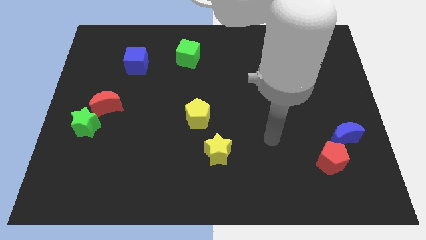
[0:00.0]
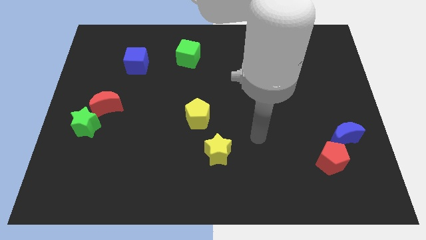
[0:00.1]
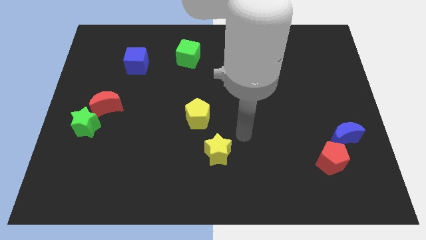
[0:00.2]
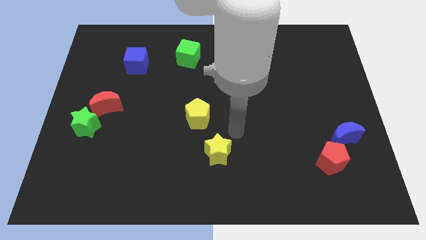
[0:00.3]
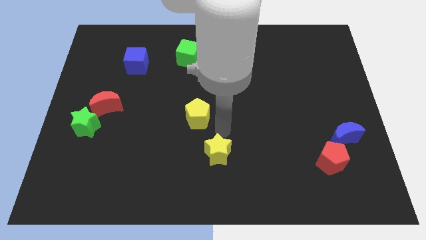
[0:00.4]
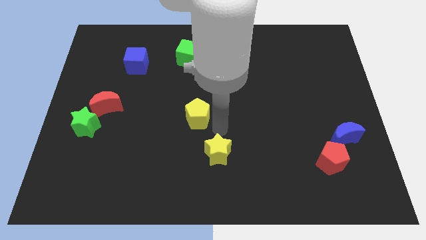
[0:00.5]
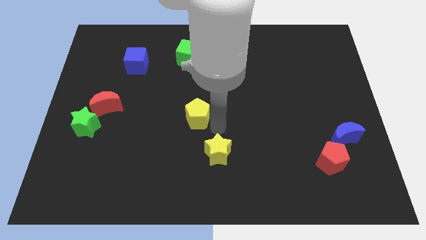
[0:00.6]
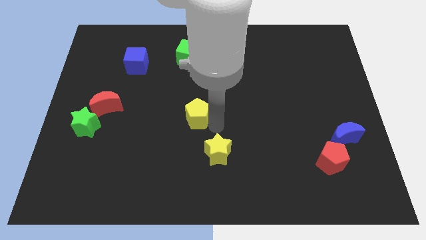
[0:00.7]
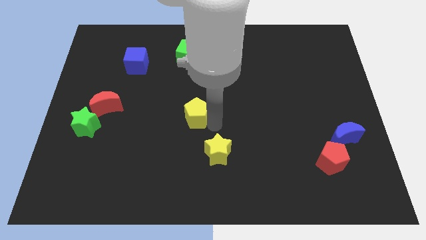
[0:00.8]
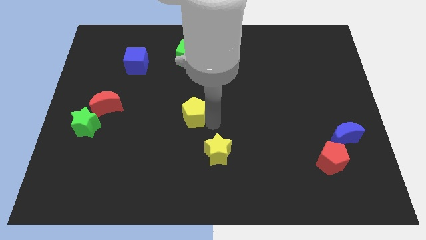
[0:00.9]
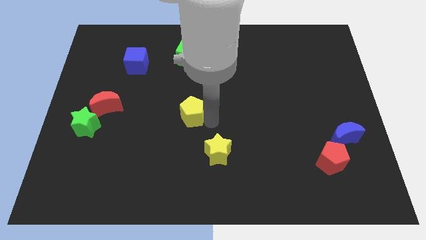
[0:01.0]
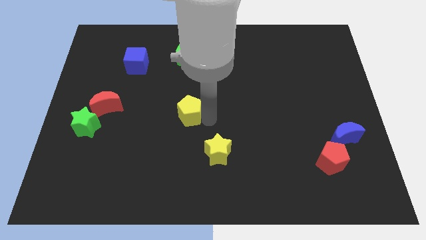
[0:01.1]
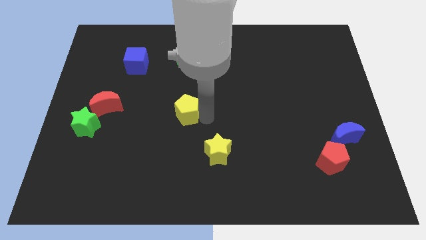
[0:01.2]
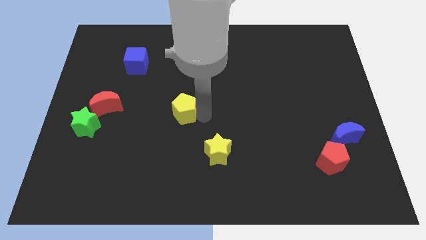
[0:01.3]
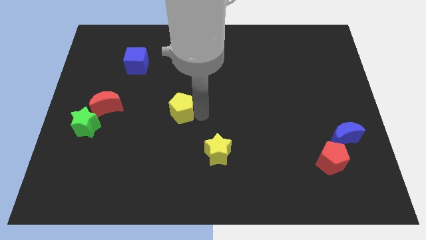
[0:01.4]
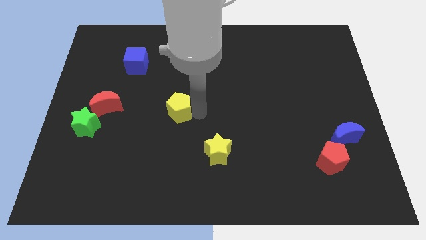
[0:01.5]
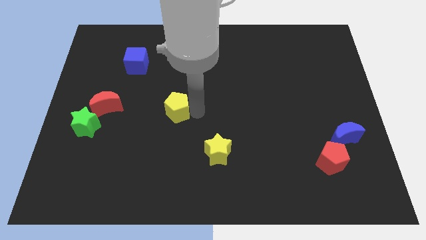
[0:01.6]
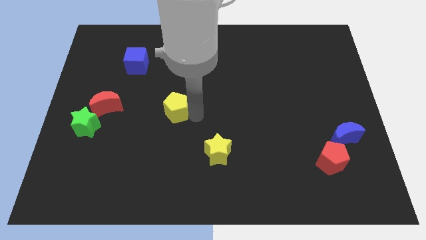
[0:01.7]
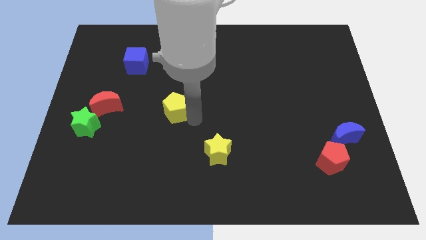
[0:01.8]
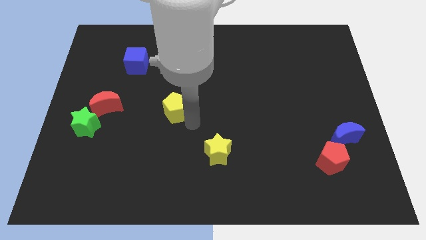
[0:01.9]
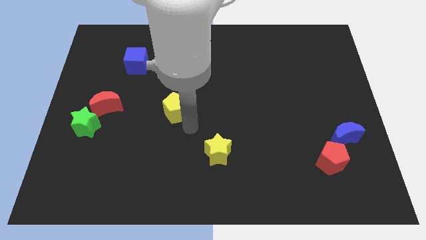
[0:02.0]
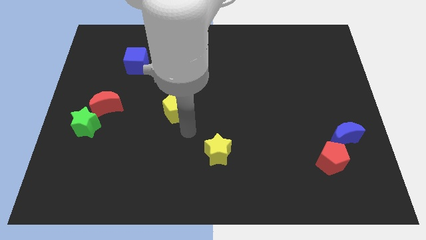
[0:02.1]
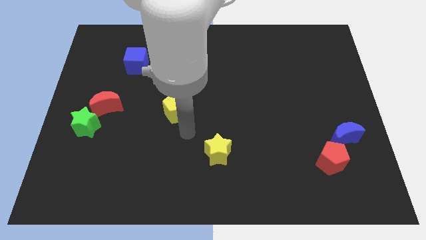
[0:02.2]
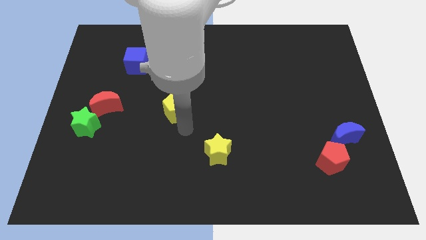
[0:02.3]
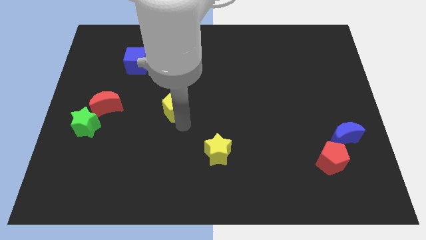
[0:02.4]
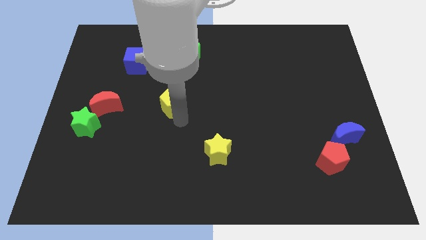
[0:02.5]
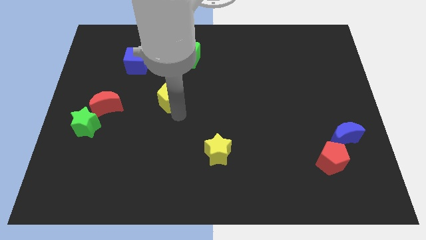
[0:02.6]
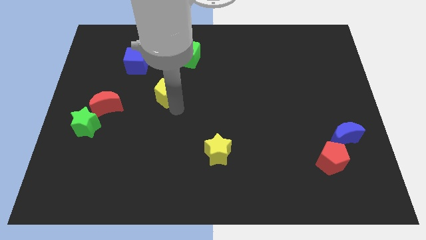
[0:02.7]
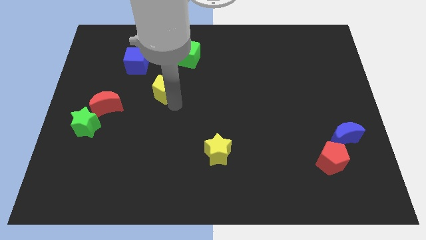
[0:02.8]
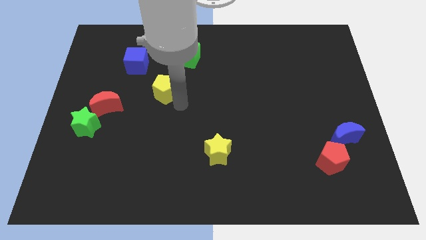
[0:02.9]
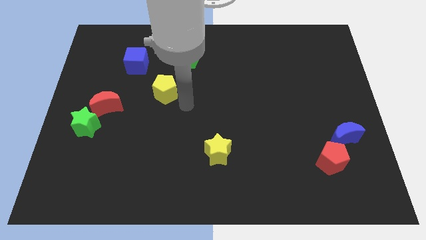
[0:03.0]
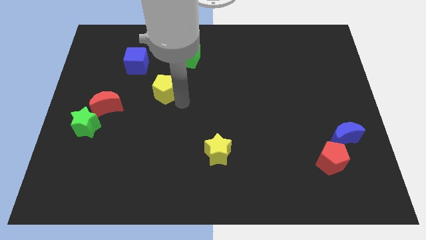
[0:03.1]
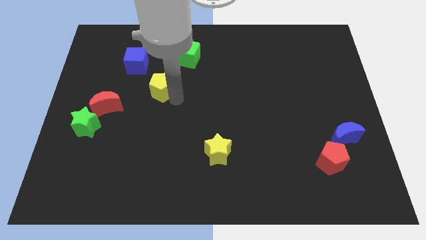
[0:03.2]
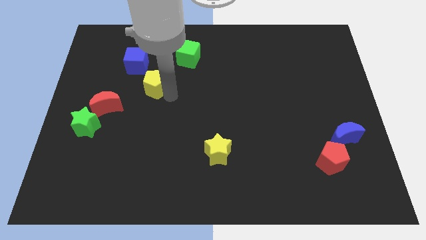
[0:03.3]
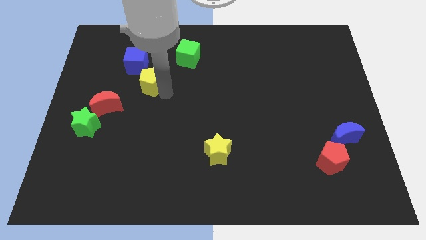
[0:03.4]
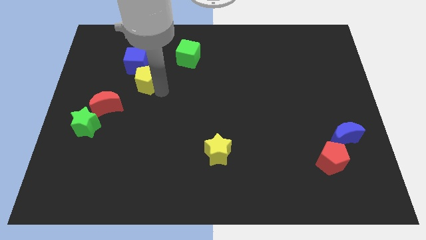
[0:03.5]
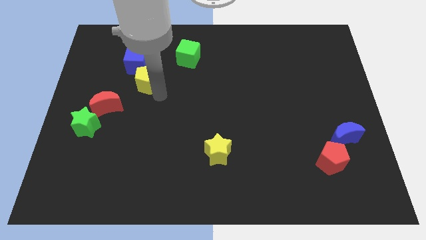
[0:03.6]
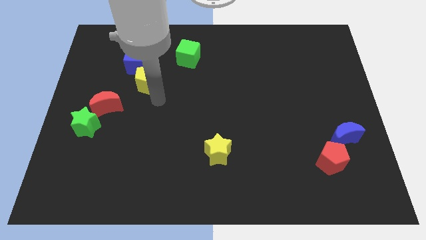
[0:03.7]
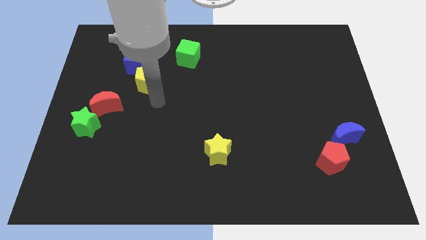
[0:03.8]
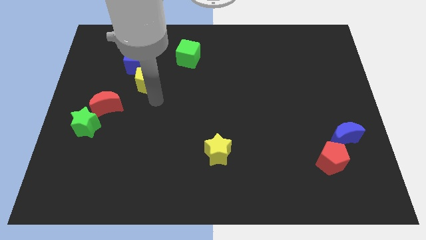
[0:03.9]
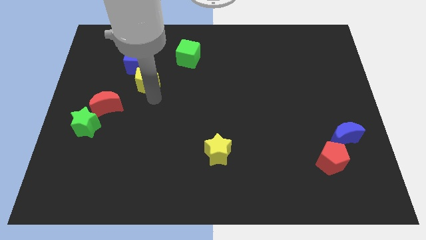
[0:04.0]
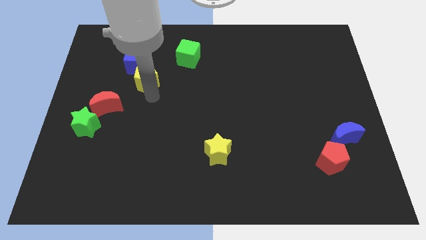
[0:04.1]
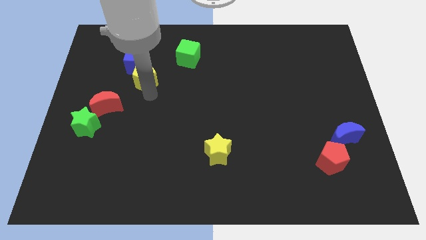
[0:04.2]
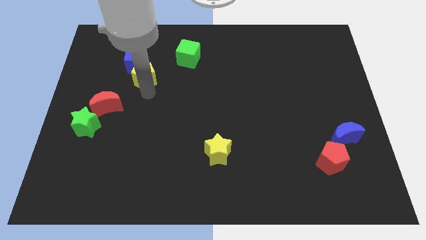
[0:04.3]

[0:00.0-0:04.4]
push the yellow pentagon to the blue cube

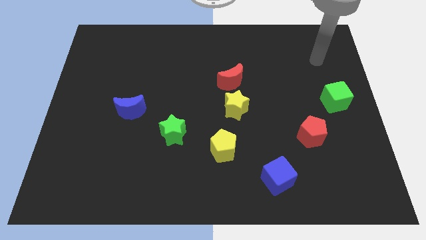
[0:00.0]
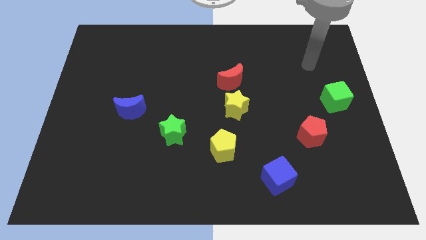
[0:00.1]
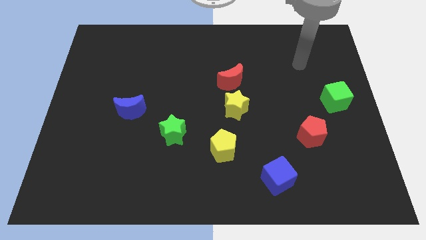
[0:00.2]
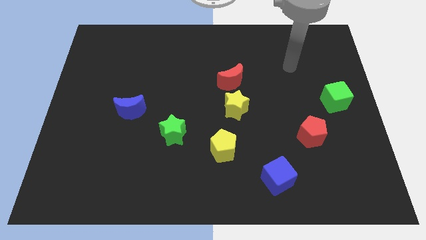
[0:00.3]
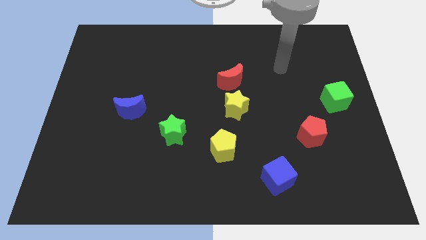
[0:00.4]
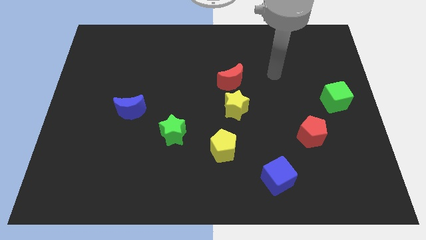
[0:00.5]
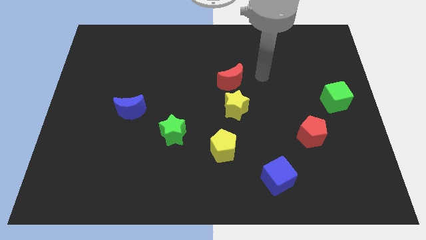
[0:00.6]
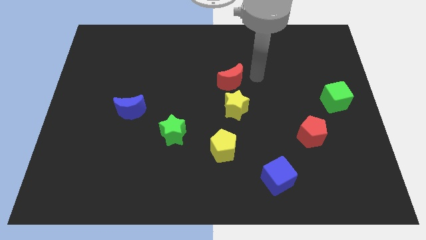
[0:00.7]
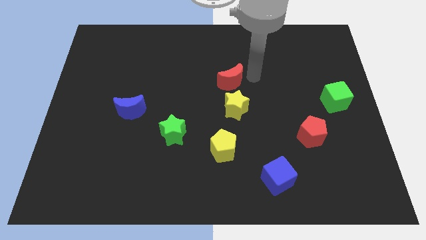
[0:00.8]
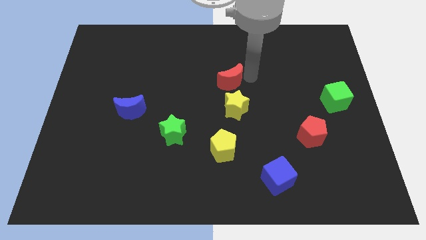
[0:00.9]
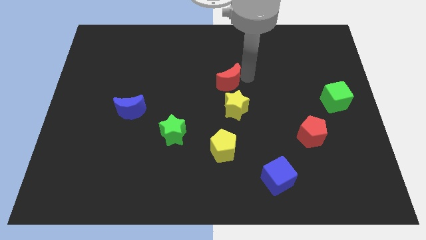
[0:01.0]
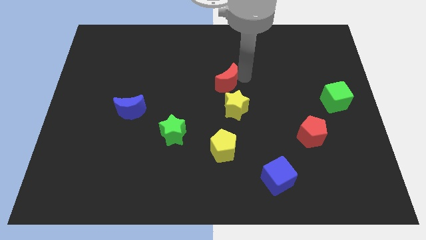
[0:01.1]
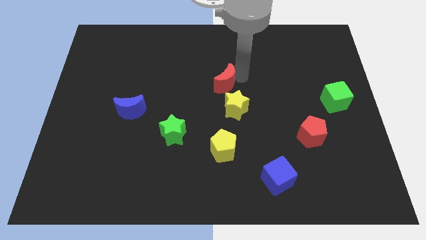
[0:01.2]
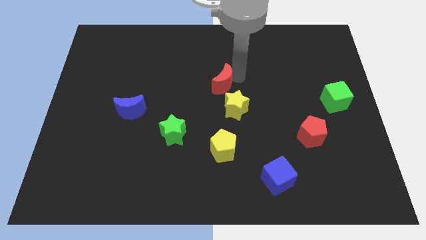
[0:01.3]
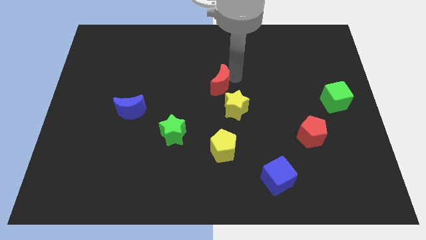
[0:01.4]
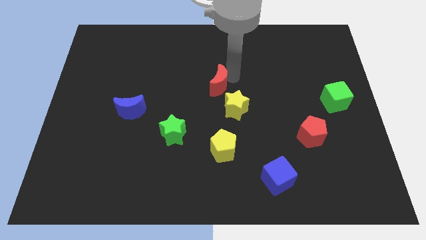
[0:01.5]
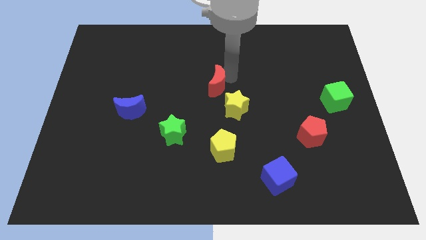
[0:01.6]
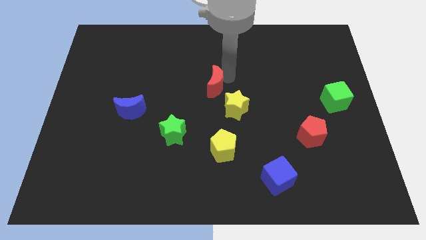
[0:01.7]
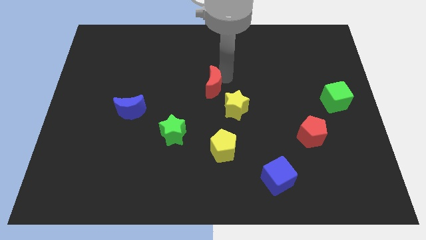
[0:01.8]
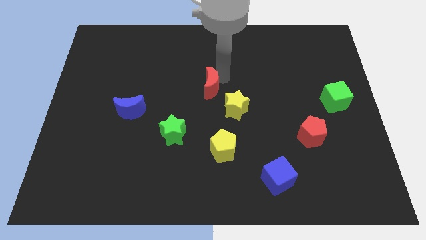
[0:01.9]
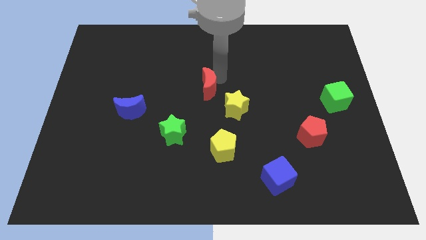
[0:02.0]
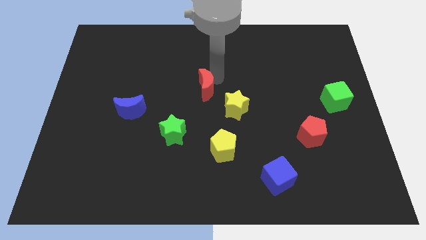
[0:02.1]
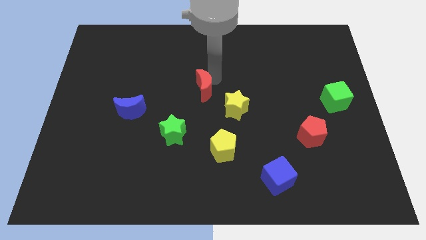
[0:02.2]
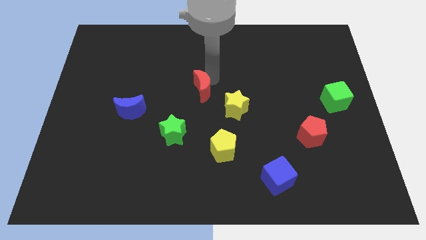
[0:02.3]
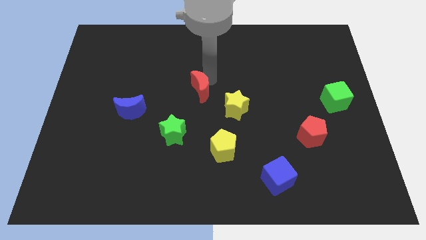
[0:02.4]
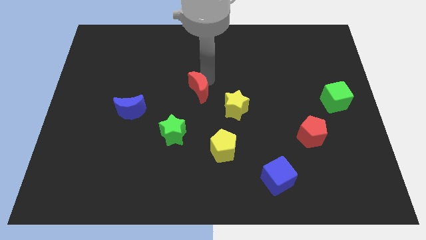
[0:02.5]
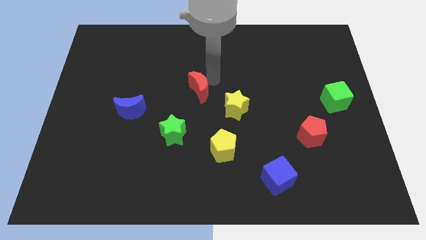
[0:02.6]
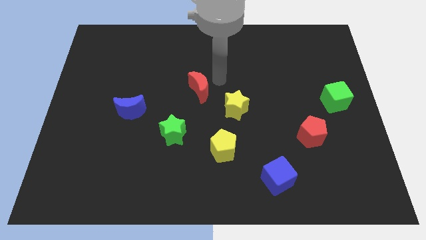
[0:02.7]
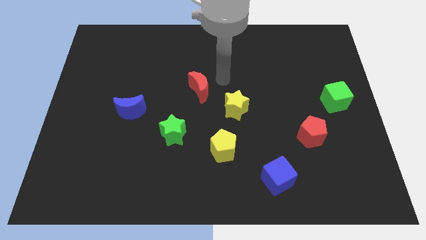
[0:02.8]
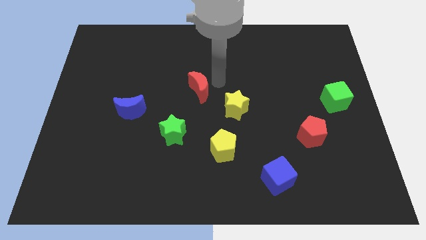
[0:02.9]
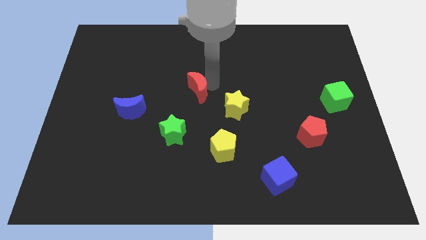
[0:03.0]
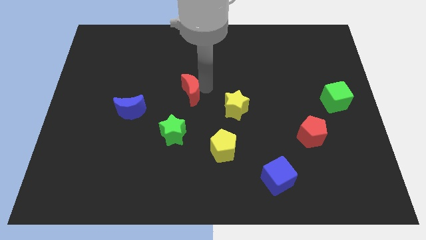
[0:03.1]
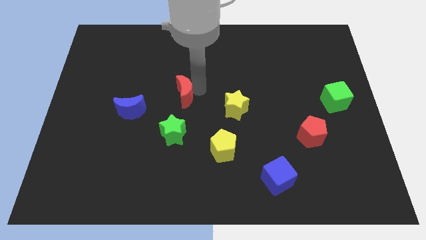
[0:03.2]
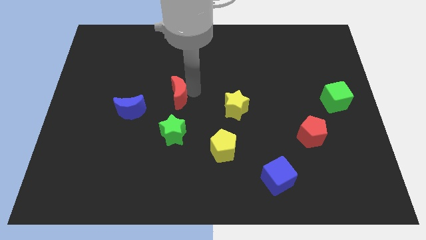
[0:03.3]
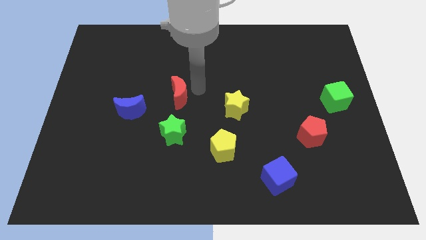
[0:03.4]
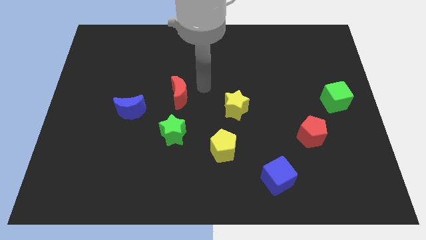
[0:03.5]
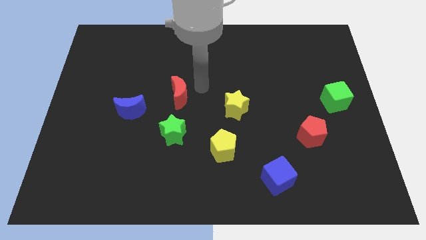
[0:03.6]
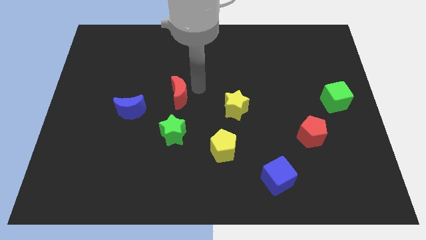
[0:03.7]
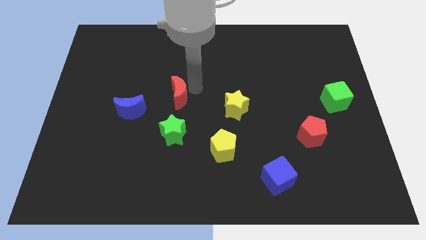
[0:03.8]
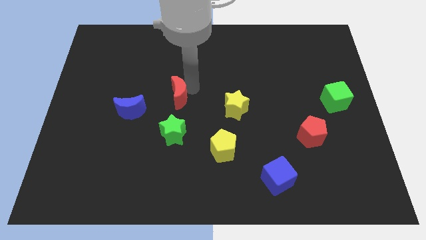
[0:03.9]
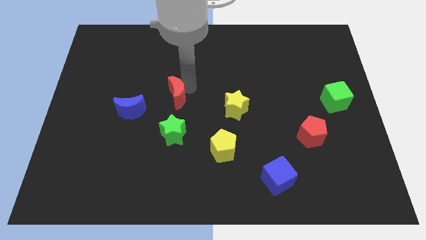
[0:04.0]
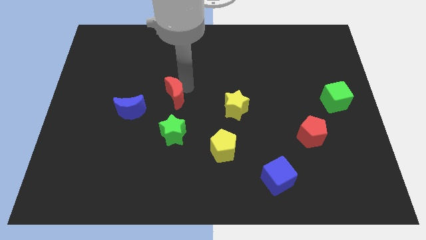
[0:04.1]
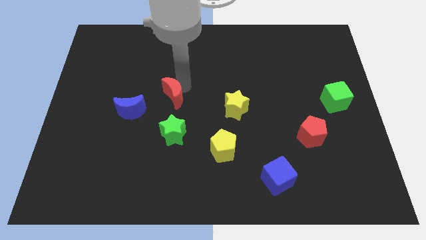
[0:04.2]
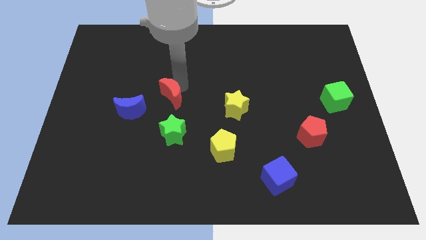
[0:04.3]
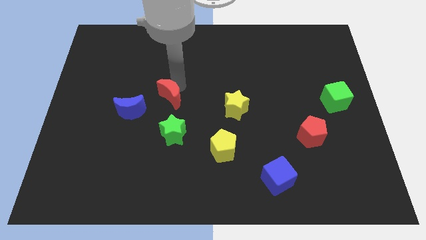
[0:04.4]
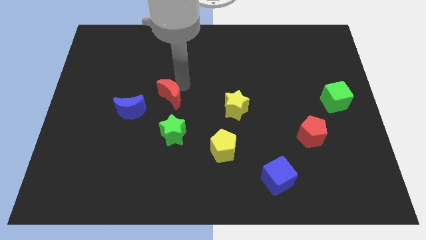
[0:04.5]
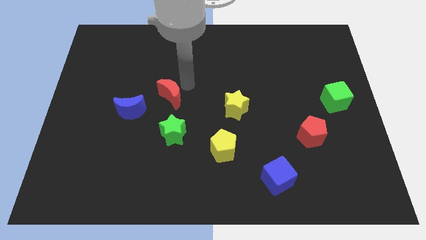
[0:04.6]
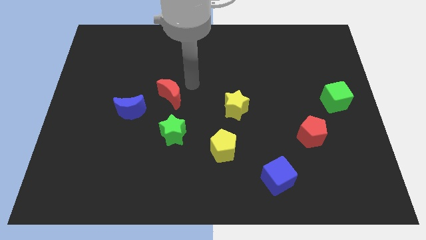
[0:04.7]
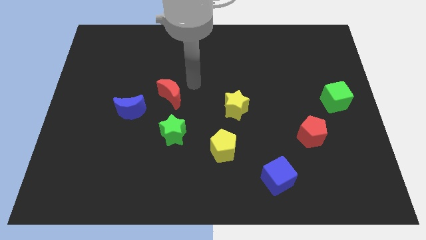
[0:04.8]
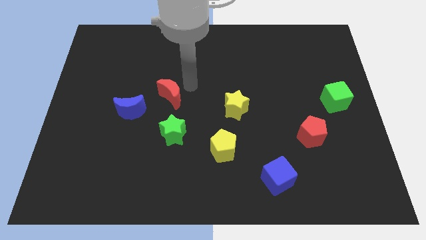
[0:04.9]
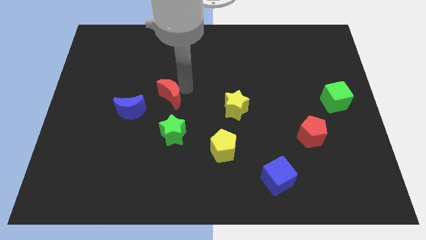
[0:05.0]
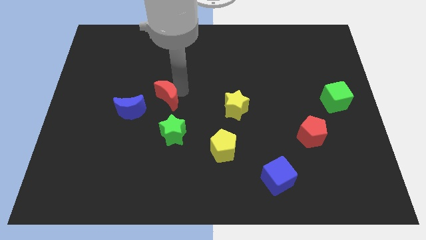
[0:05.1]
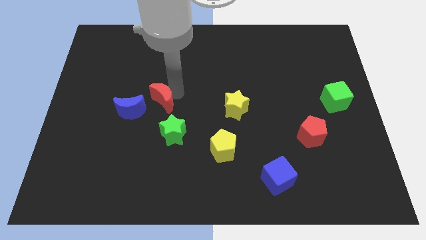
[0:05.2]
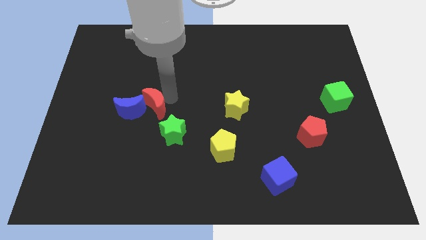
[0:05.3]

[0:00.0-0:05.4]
move the red moon close to the blue moon
